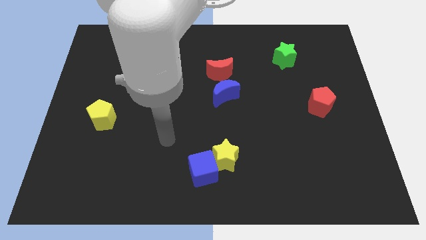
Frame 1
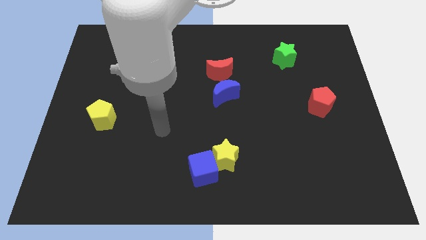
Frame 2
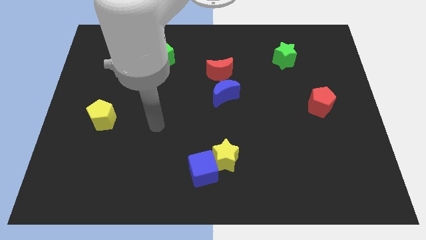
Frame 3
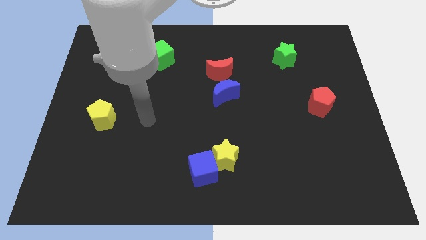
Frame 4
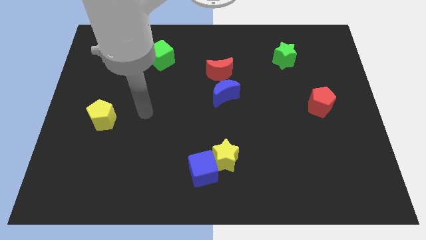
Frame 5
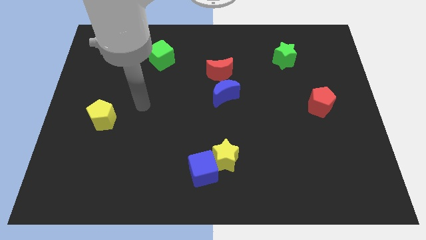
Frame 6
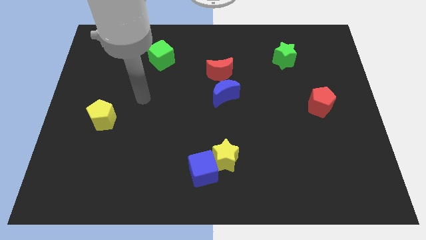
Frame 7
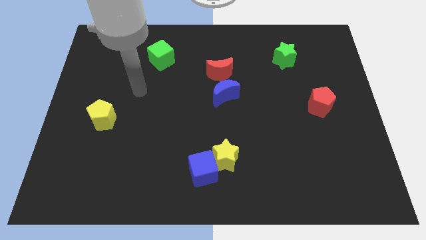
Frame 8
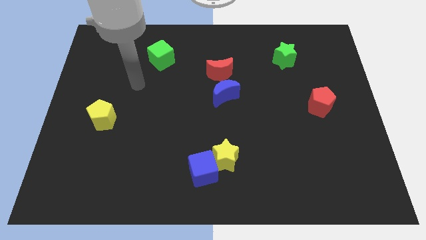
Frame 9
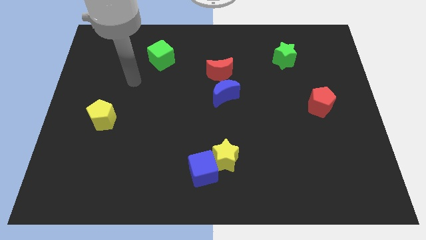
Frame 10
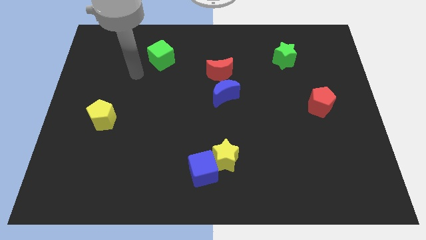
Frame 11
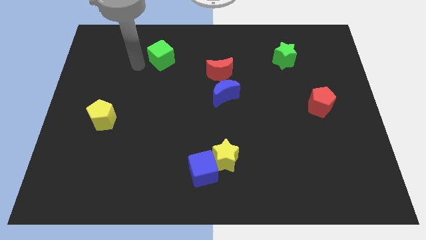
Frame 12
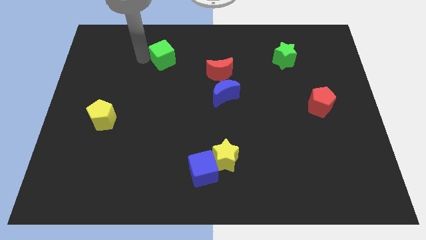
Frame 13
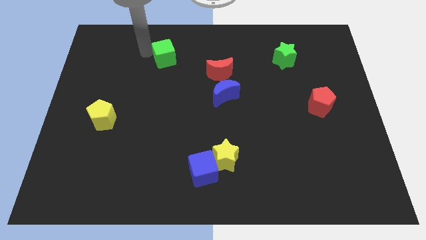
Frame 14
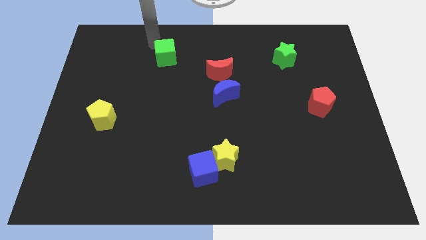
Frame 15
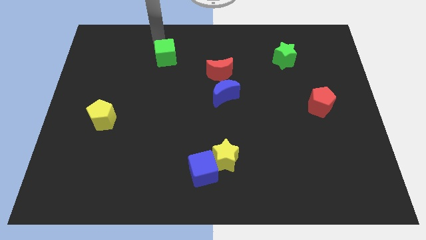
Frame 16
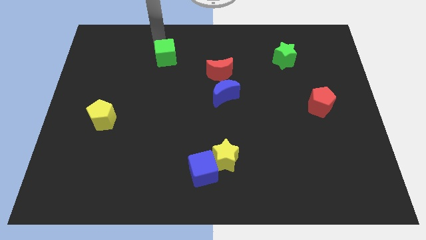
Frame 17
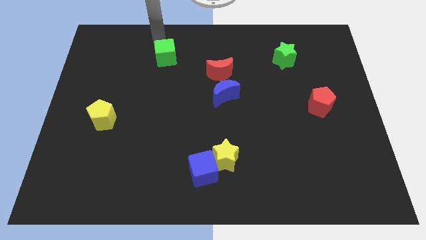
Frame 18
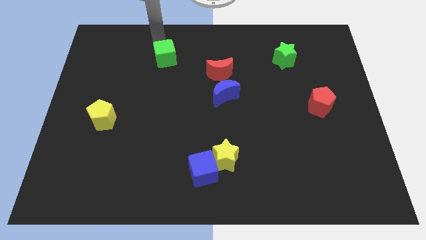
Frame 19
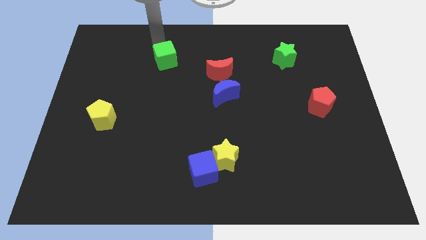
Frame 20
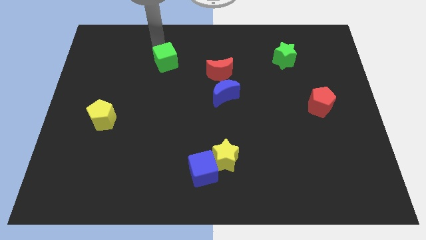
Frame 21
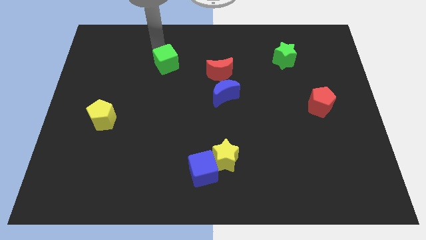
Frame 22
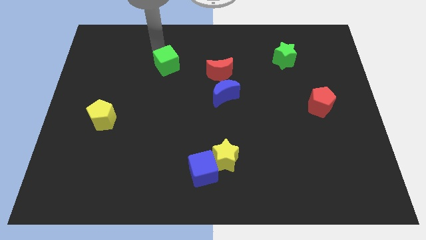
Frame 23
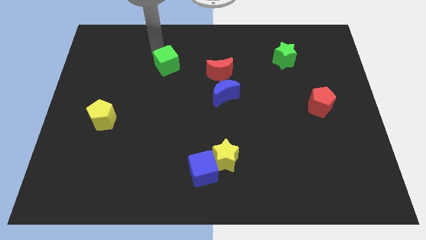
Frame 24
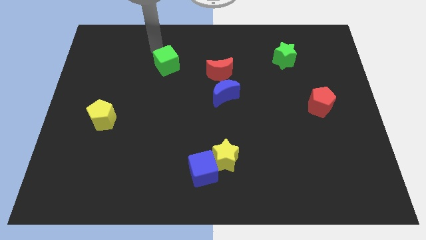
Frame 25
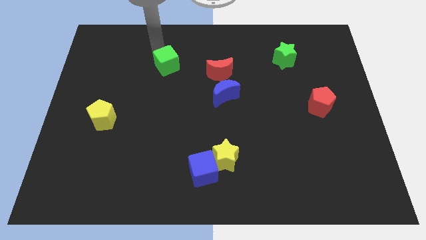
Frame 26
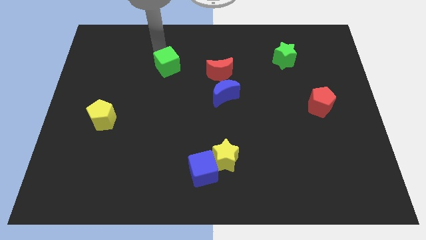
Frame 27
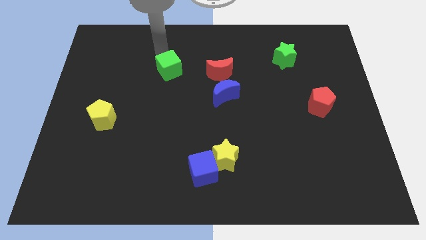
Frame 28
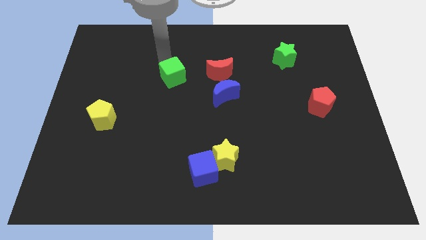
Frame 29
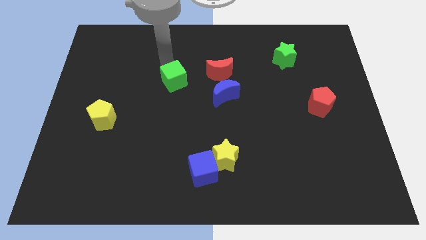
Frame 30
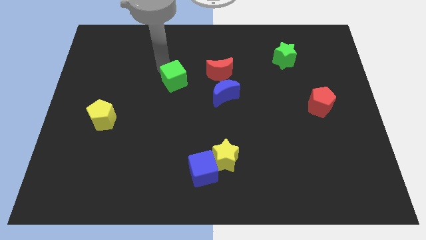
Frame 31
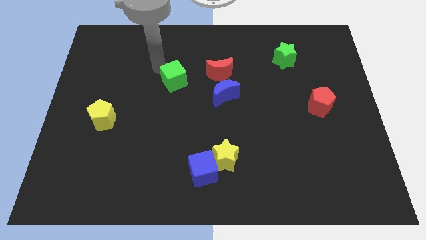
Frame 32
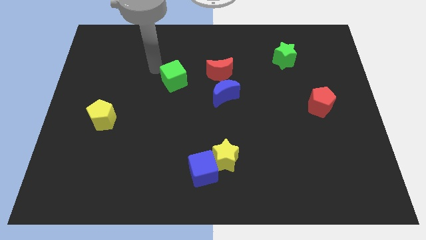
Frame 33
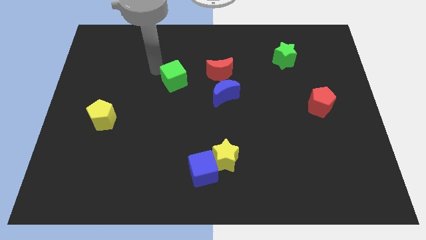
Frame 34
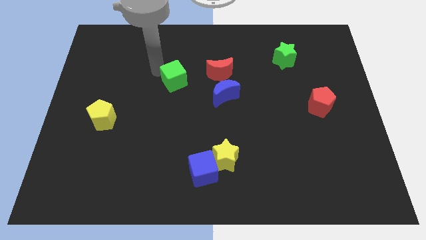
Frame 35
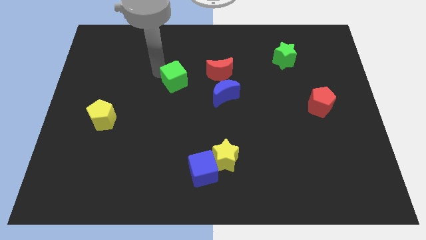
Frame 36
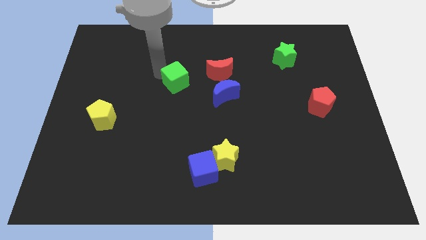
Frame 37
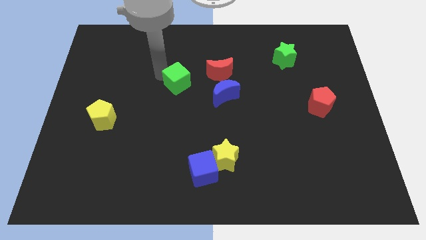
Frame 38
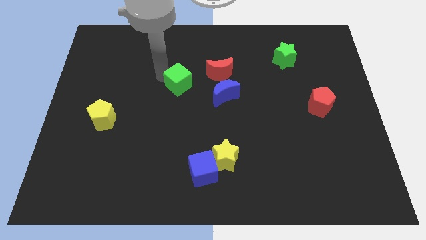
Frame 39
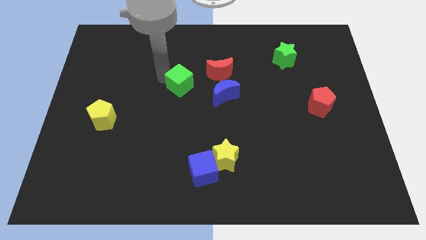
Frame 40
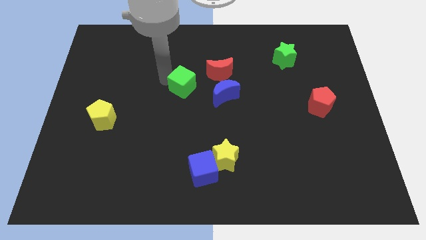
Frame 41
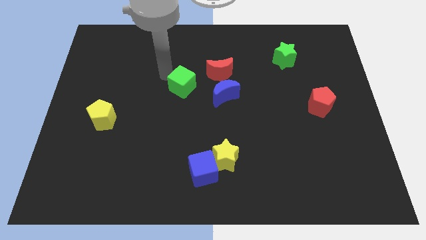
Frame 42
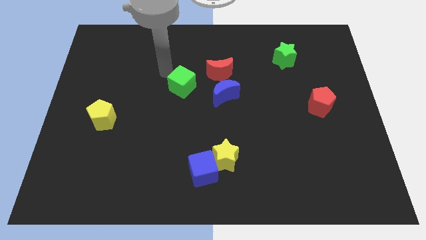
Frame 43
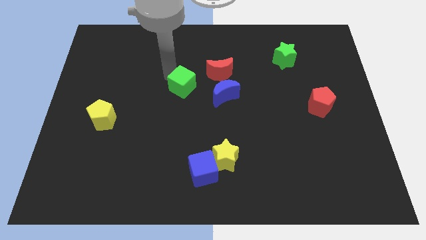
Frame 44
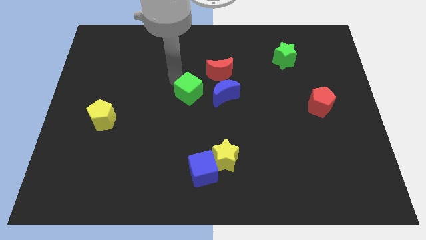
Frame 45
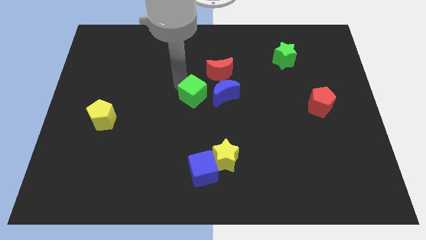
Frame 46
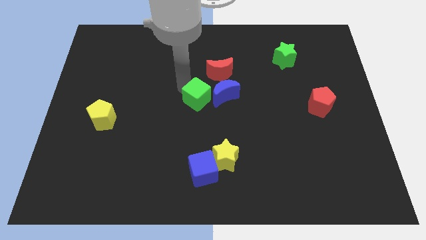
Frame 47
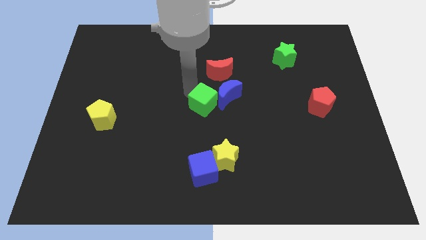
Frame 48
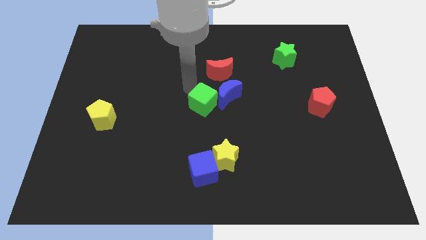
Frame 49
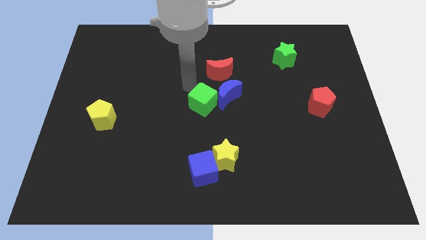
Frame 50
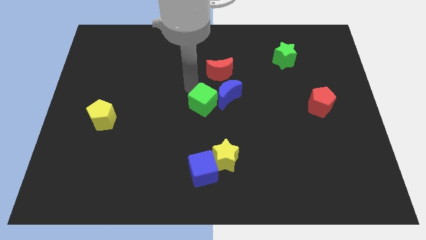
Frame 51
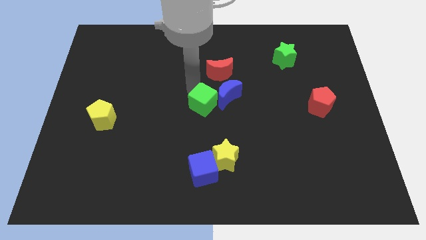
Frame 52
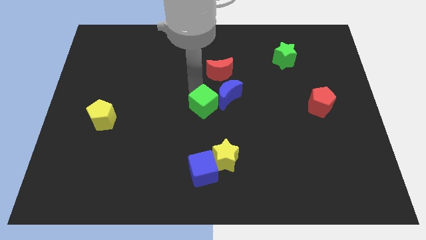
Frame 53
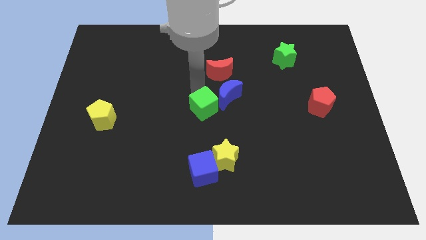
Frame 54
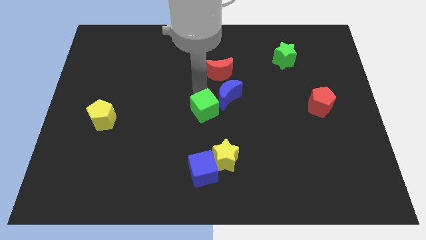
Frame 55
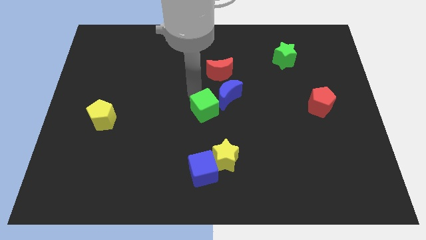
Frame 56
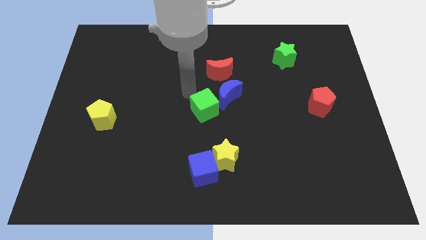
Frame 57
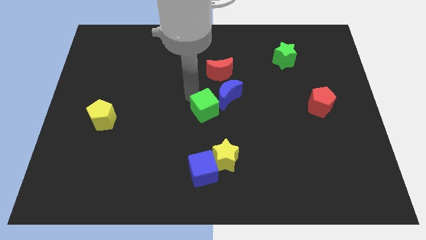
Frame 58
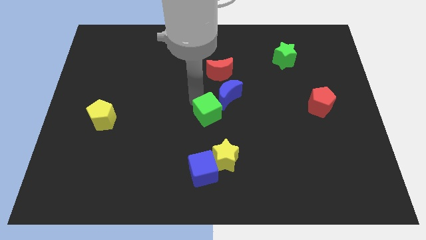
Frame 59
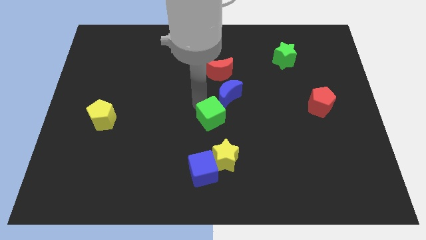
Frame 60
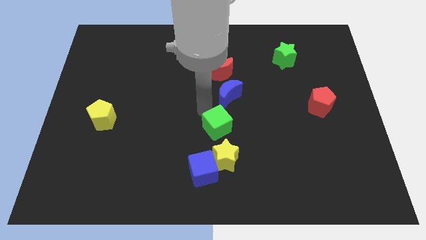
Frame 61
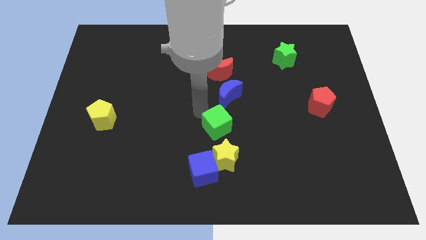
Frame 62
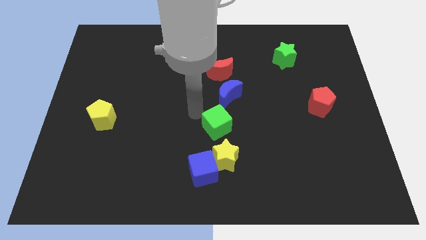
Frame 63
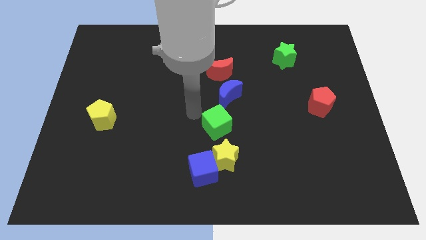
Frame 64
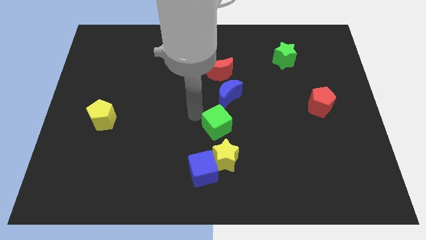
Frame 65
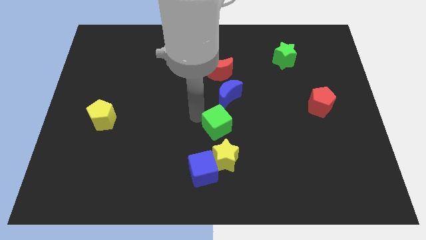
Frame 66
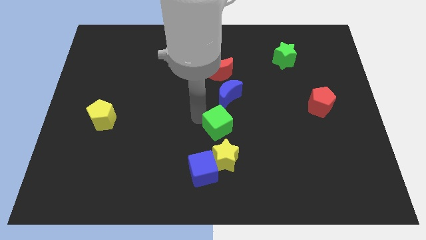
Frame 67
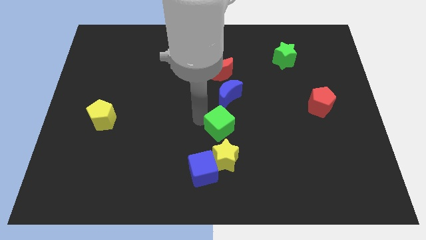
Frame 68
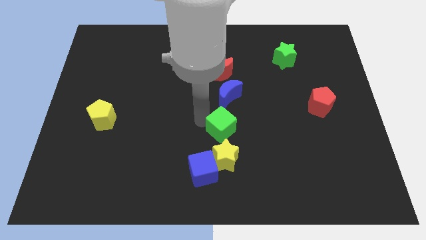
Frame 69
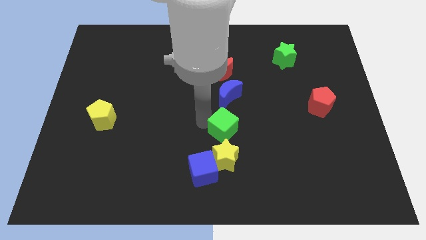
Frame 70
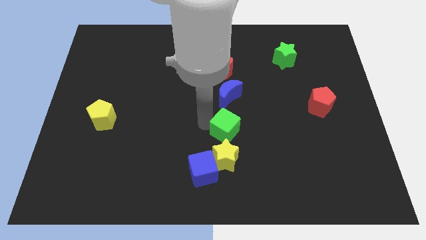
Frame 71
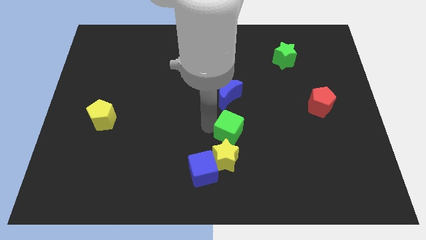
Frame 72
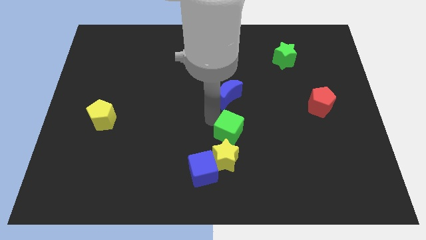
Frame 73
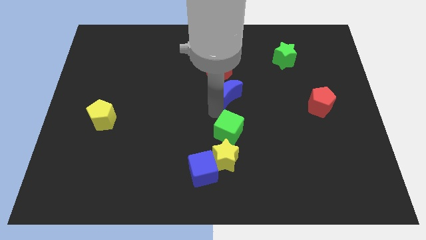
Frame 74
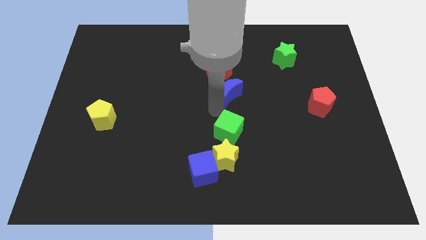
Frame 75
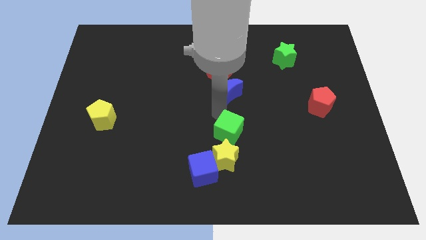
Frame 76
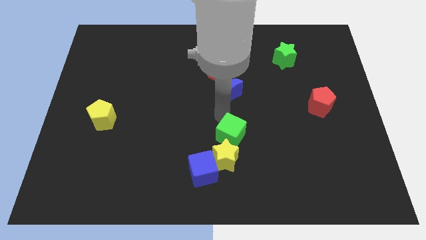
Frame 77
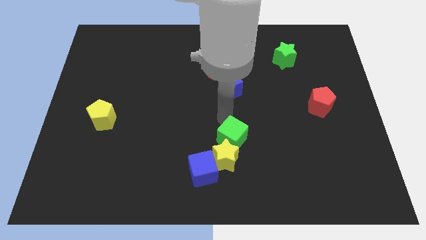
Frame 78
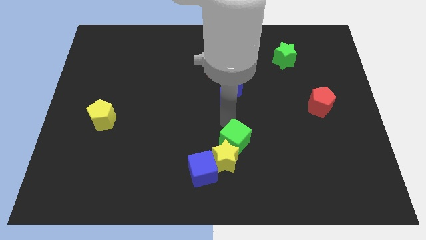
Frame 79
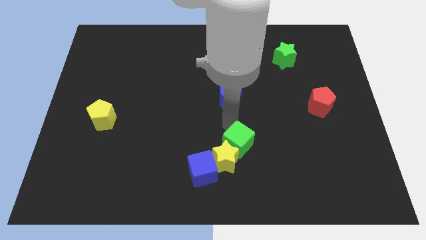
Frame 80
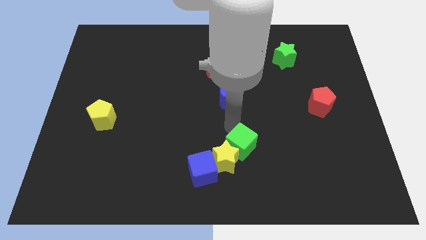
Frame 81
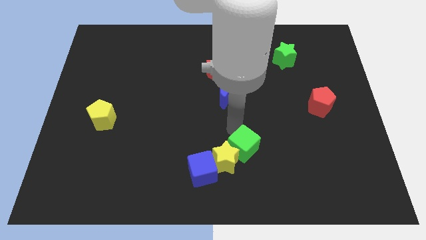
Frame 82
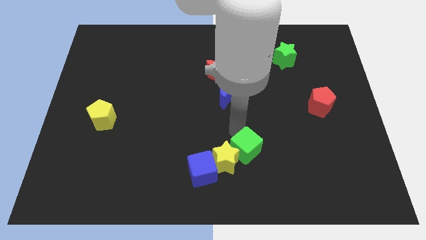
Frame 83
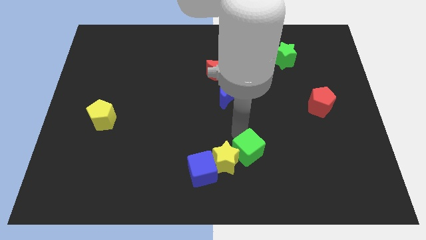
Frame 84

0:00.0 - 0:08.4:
push the green cube just right of the blue cube
